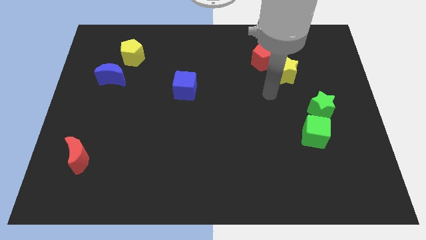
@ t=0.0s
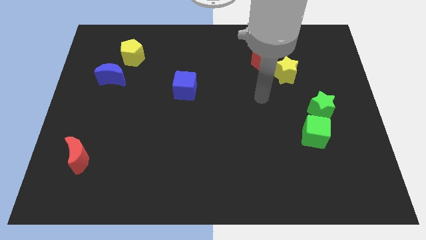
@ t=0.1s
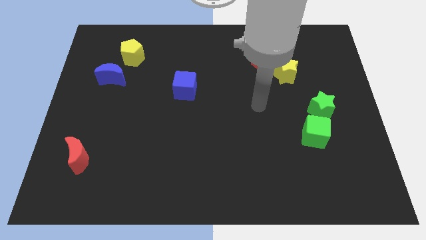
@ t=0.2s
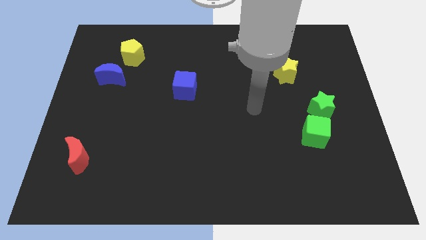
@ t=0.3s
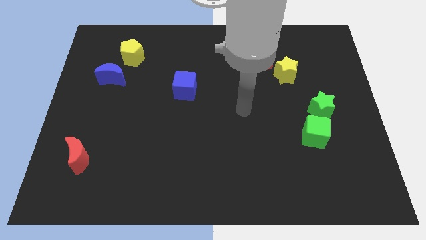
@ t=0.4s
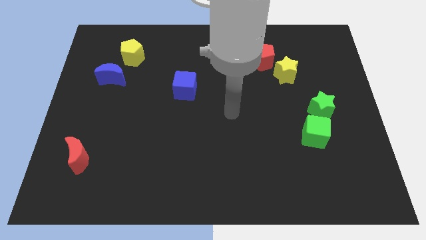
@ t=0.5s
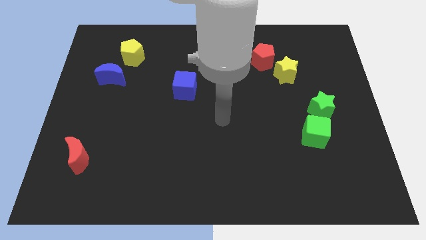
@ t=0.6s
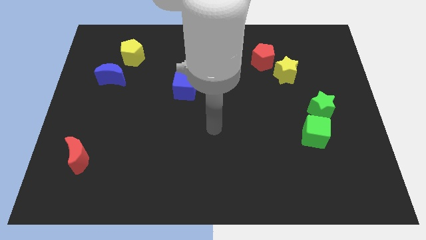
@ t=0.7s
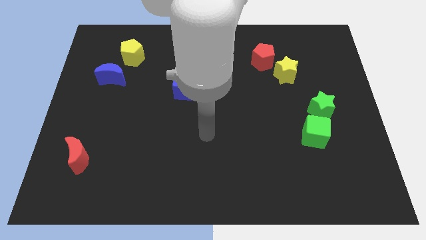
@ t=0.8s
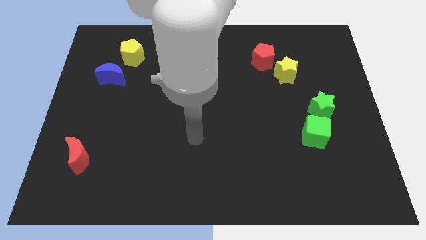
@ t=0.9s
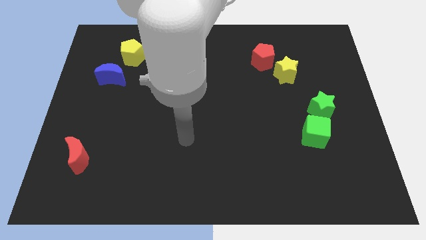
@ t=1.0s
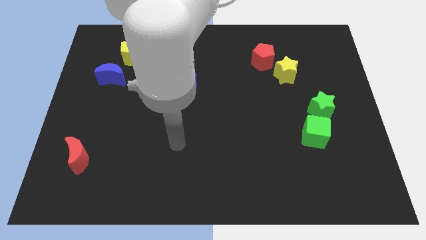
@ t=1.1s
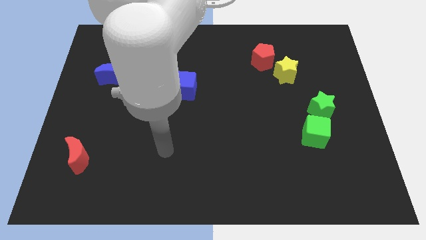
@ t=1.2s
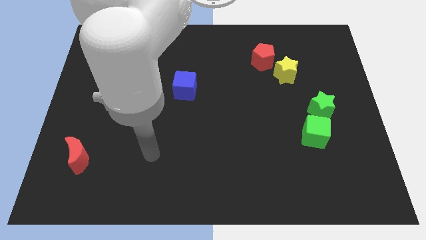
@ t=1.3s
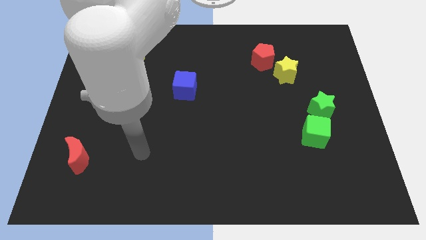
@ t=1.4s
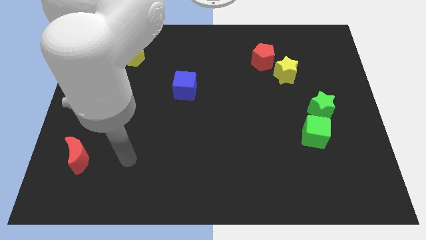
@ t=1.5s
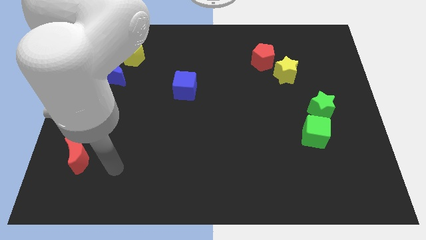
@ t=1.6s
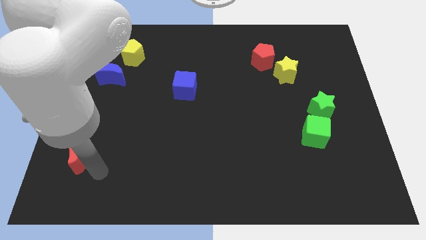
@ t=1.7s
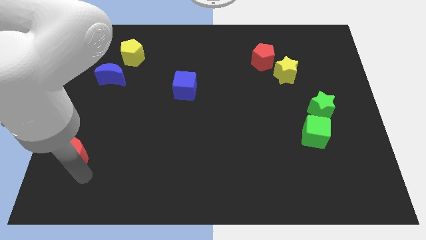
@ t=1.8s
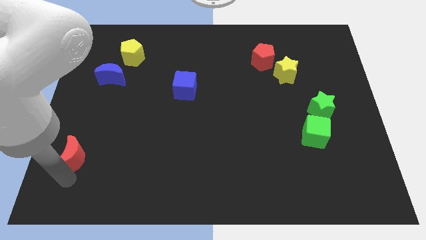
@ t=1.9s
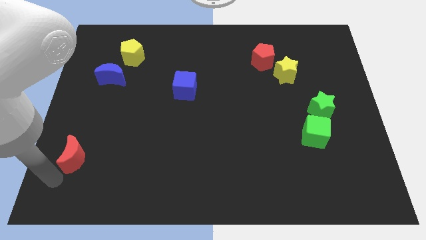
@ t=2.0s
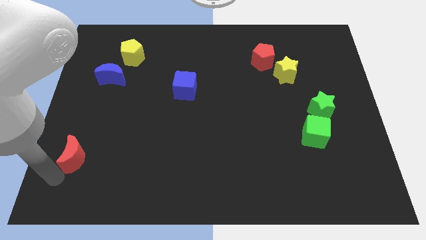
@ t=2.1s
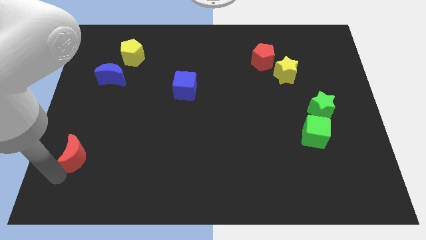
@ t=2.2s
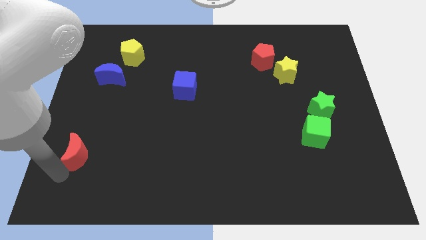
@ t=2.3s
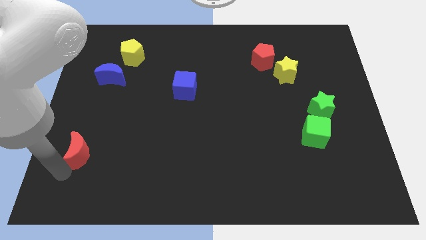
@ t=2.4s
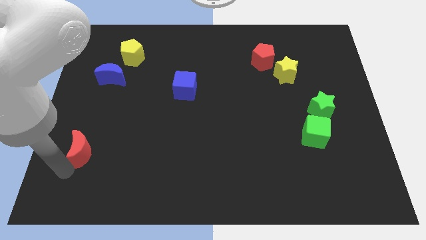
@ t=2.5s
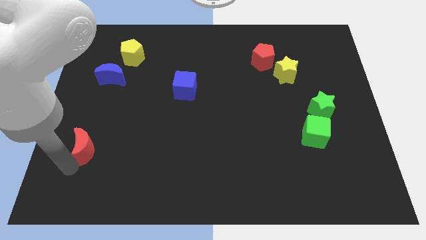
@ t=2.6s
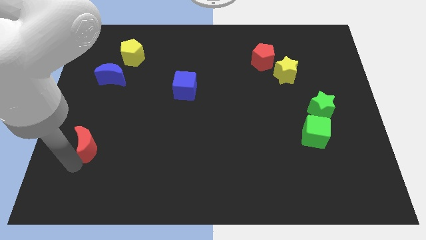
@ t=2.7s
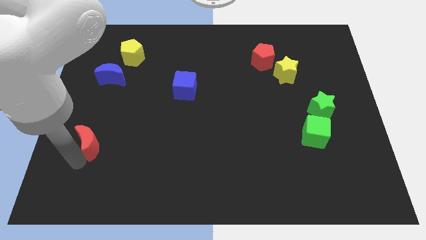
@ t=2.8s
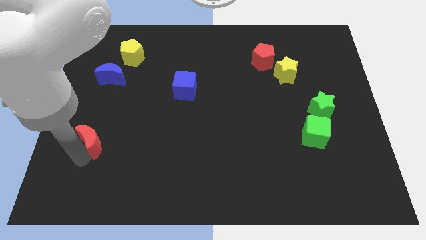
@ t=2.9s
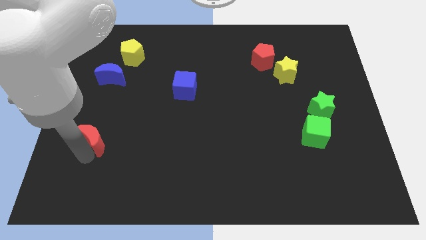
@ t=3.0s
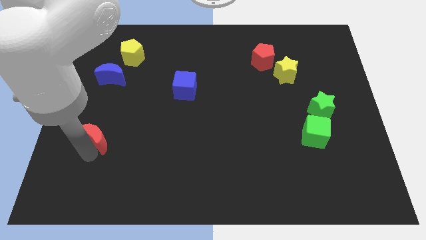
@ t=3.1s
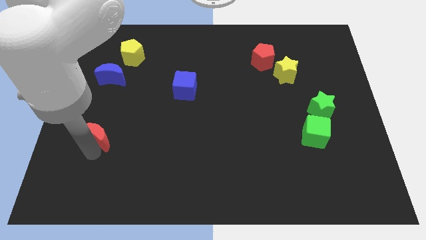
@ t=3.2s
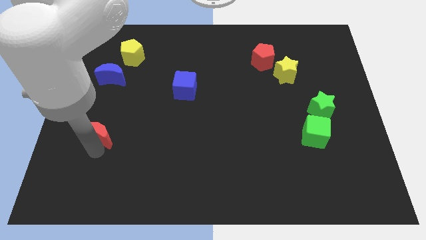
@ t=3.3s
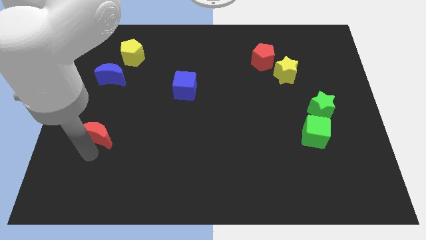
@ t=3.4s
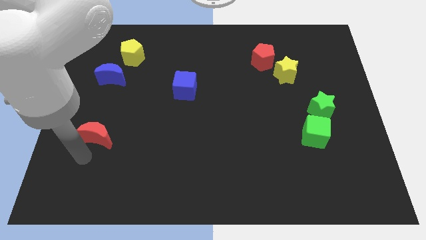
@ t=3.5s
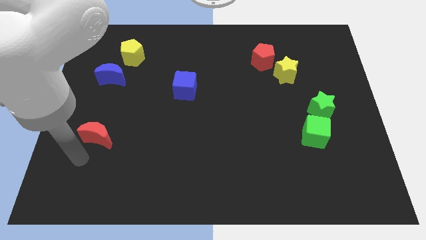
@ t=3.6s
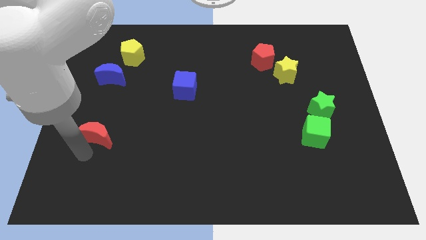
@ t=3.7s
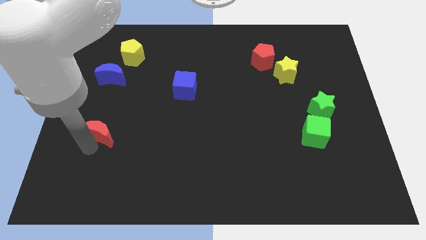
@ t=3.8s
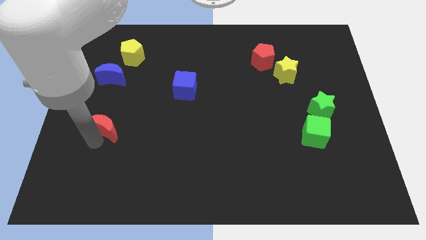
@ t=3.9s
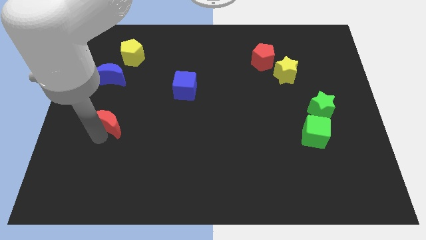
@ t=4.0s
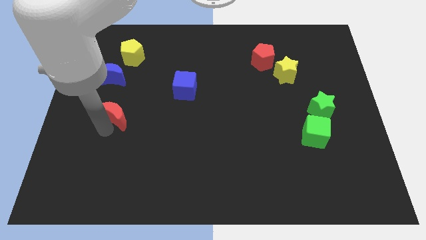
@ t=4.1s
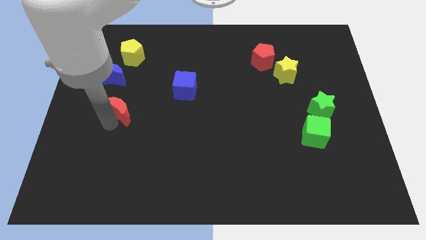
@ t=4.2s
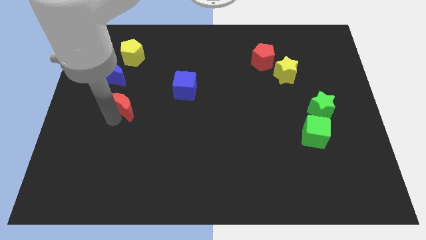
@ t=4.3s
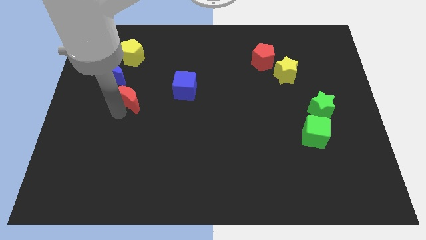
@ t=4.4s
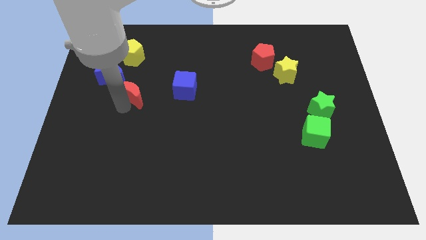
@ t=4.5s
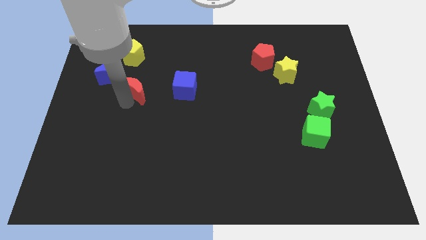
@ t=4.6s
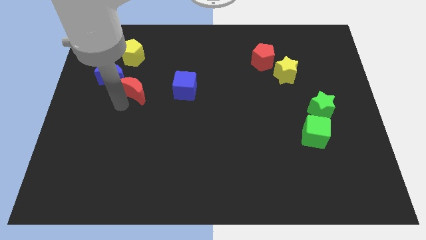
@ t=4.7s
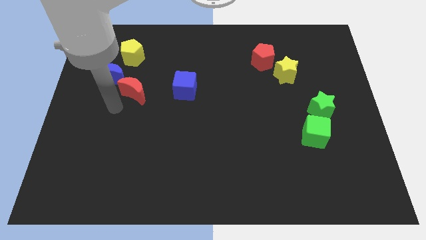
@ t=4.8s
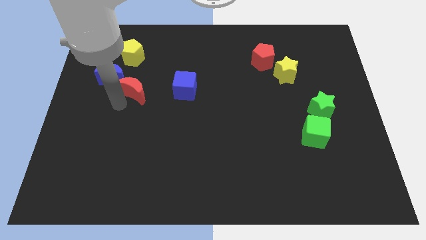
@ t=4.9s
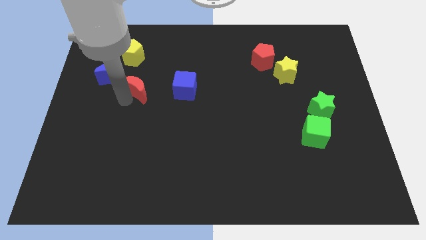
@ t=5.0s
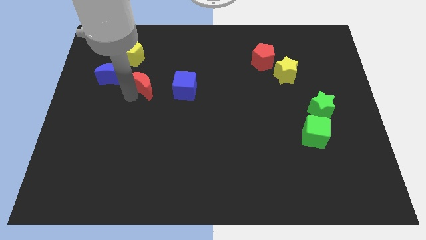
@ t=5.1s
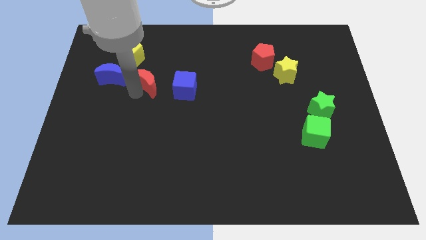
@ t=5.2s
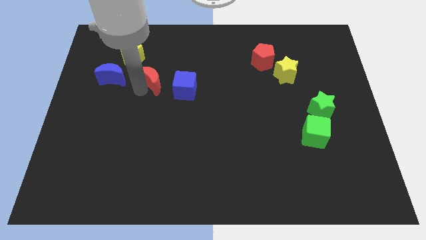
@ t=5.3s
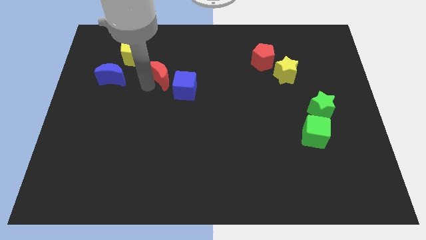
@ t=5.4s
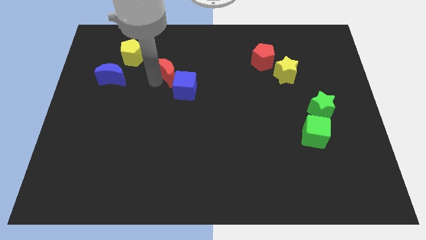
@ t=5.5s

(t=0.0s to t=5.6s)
push the red moon above the blue cube
